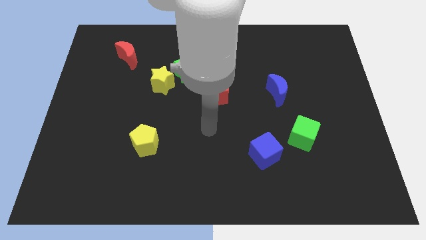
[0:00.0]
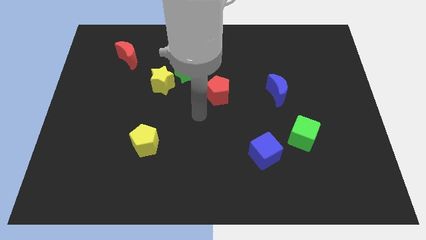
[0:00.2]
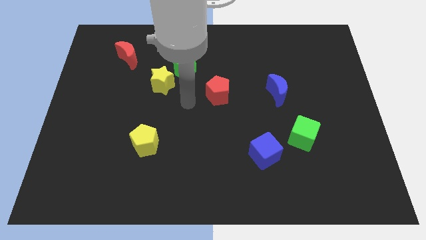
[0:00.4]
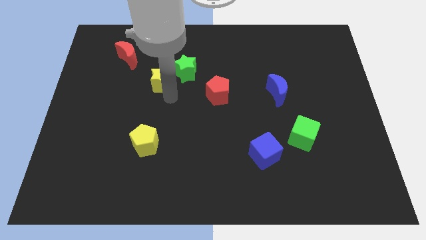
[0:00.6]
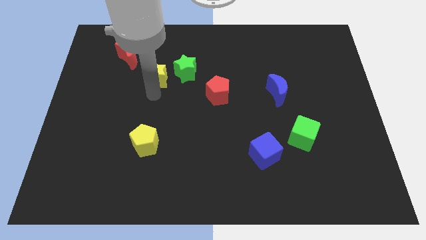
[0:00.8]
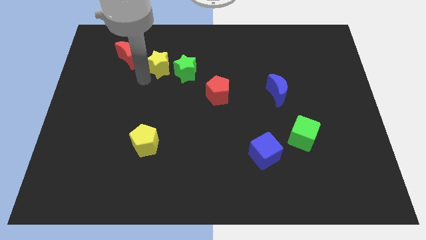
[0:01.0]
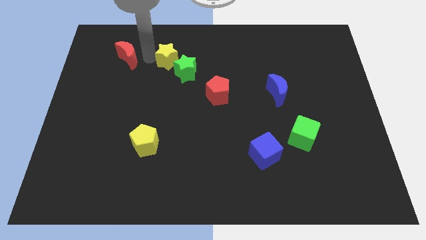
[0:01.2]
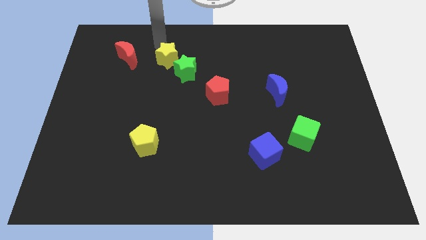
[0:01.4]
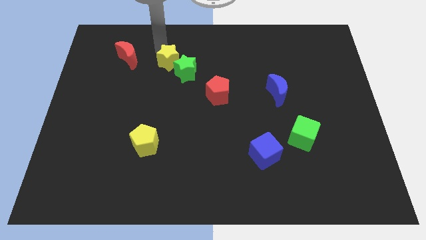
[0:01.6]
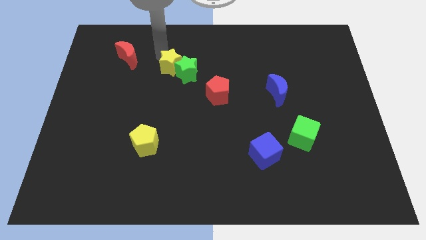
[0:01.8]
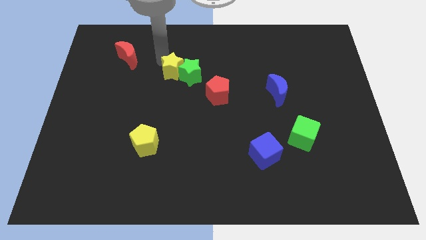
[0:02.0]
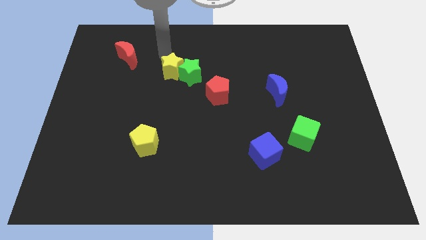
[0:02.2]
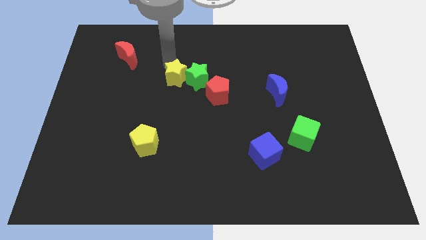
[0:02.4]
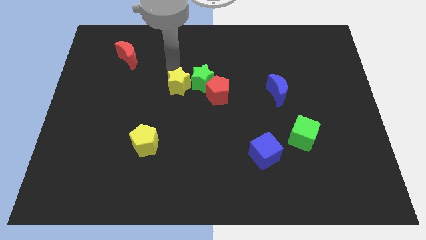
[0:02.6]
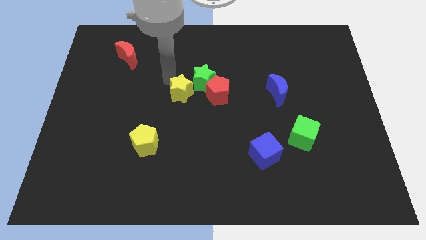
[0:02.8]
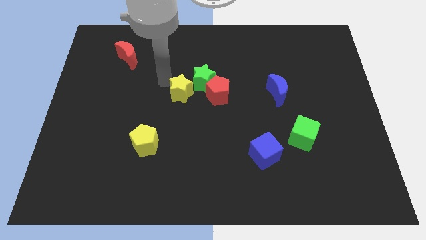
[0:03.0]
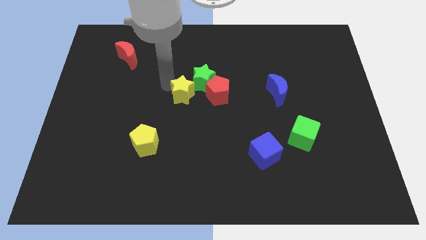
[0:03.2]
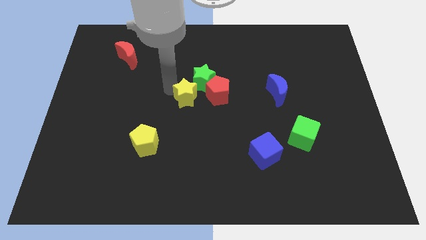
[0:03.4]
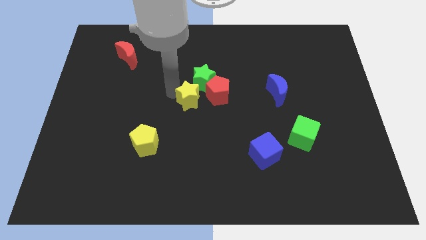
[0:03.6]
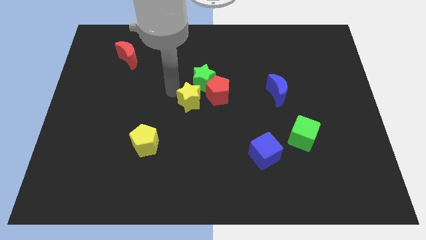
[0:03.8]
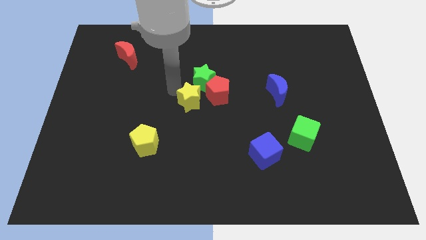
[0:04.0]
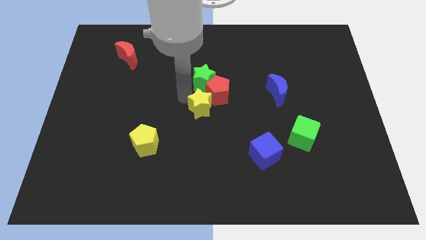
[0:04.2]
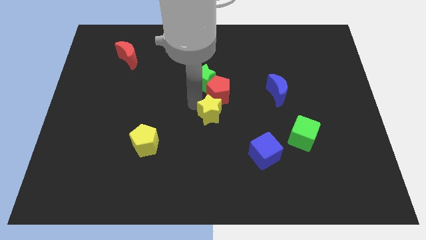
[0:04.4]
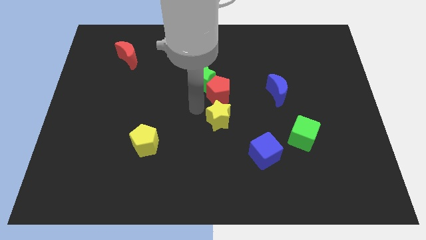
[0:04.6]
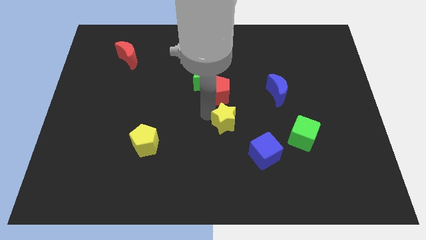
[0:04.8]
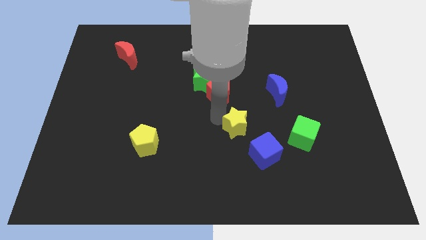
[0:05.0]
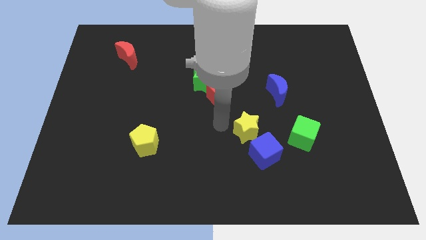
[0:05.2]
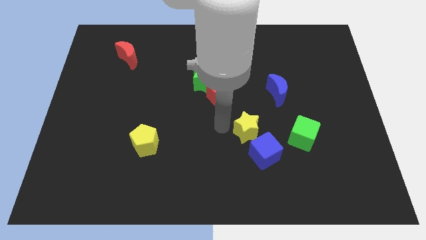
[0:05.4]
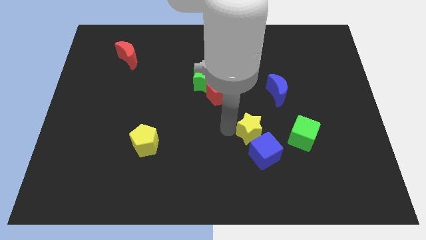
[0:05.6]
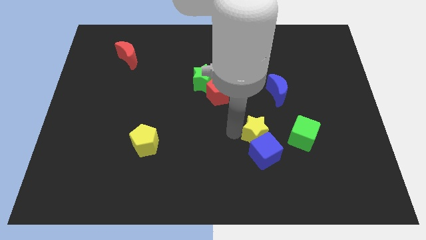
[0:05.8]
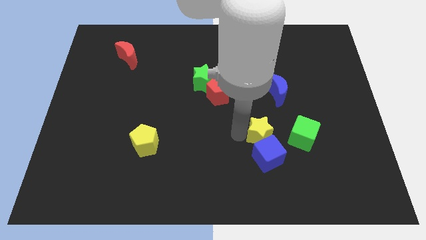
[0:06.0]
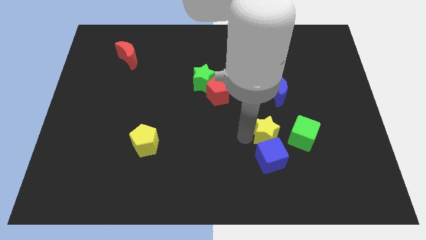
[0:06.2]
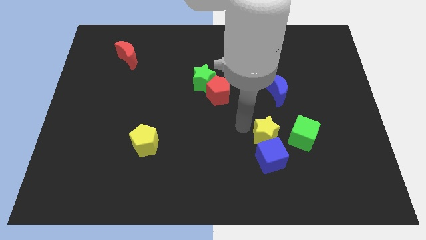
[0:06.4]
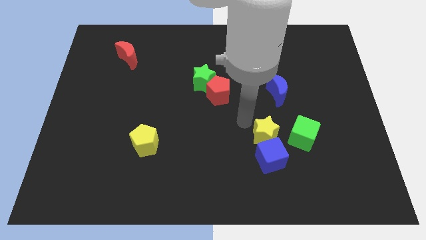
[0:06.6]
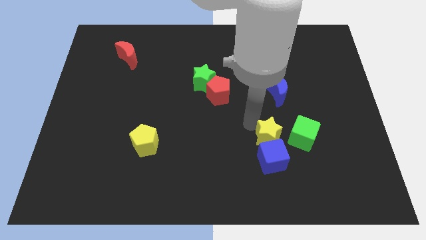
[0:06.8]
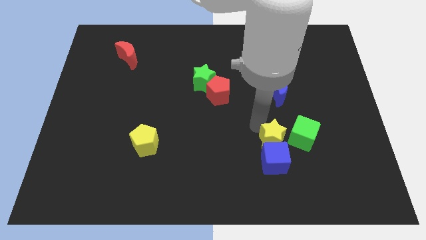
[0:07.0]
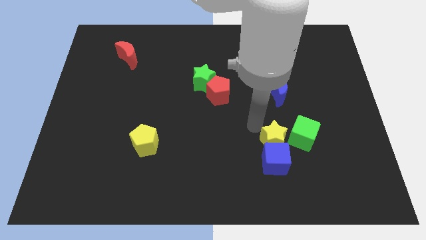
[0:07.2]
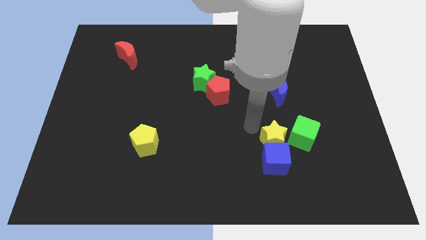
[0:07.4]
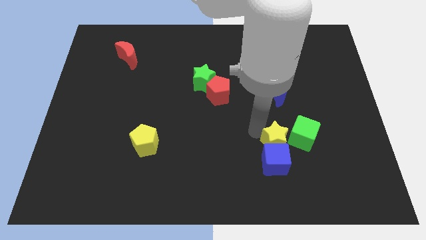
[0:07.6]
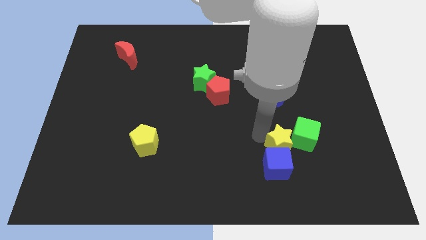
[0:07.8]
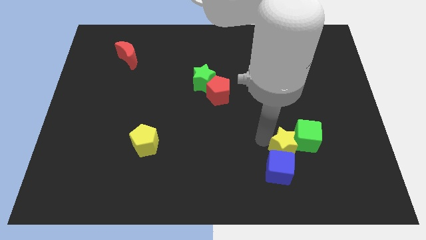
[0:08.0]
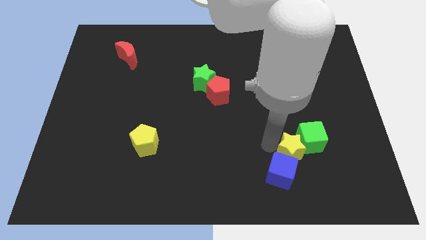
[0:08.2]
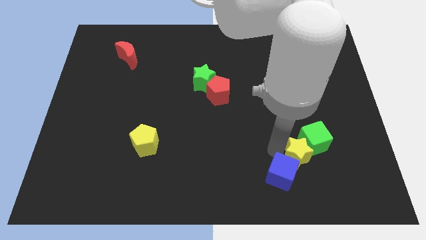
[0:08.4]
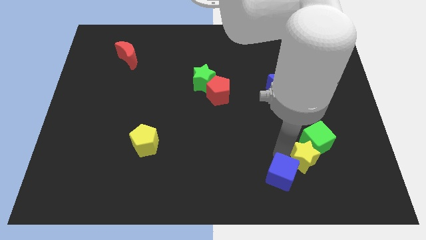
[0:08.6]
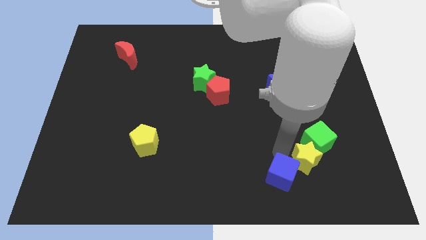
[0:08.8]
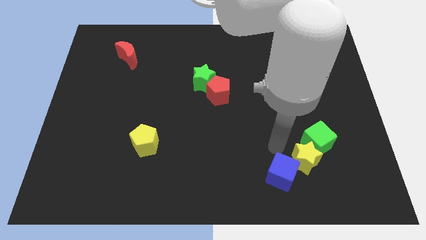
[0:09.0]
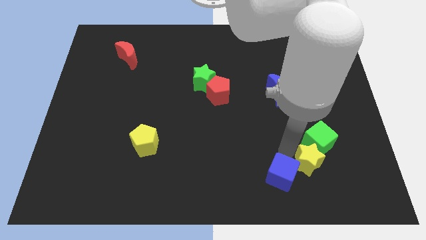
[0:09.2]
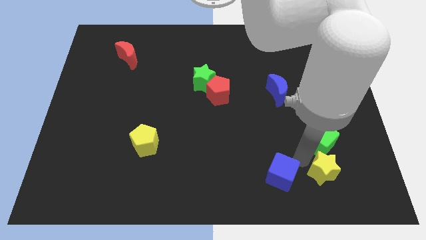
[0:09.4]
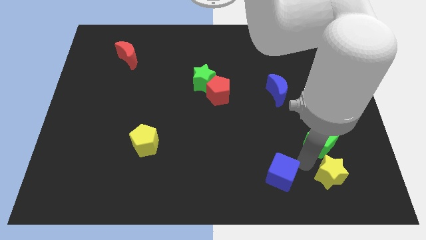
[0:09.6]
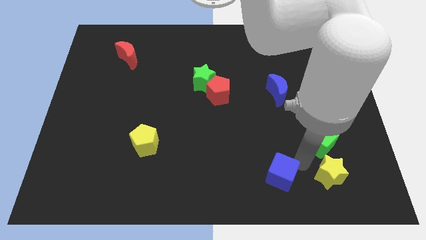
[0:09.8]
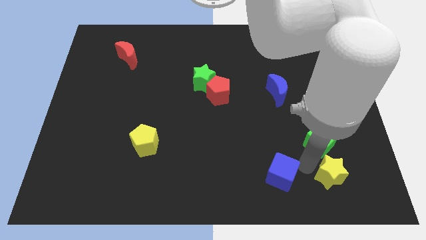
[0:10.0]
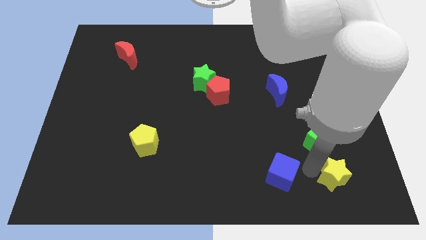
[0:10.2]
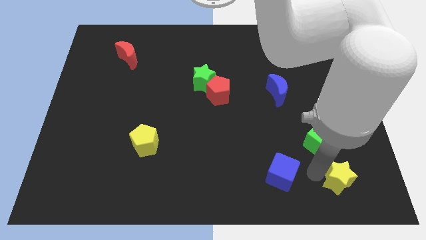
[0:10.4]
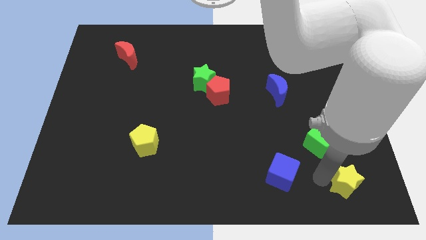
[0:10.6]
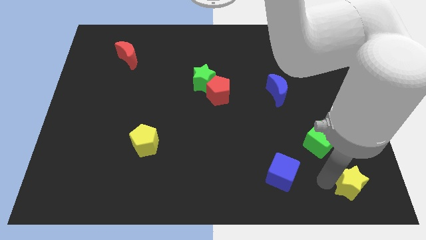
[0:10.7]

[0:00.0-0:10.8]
slide the yellow star to the bottom right of the board

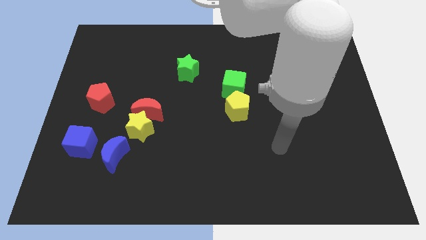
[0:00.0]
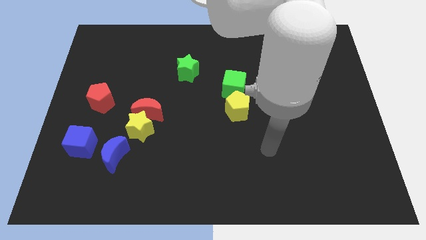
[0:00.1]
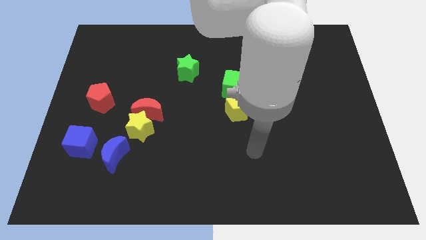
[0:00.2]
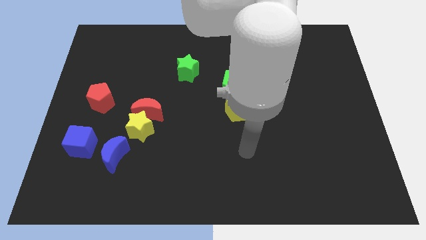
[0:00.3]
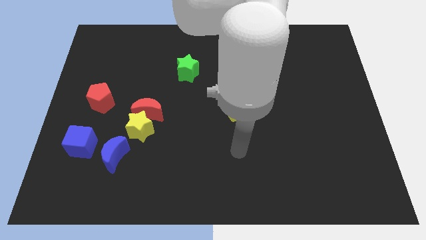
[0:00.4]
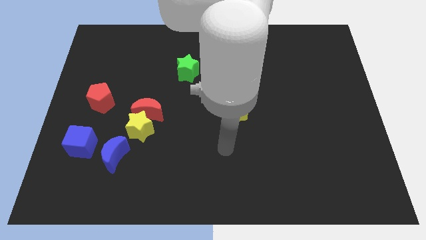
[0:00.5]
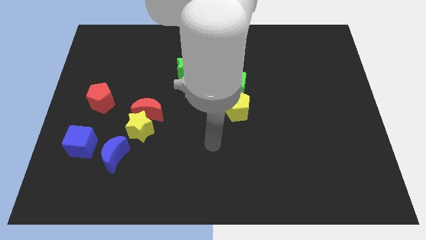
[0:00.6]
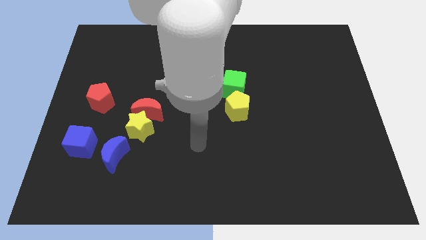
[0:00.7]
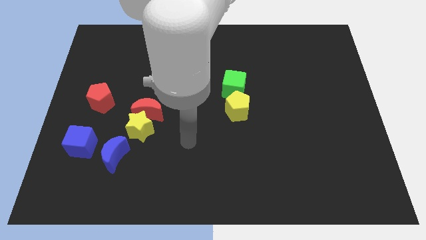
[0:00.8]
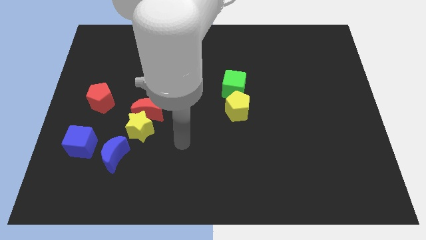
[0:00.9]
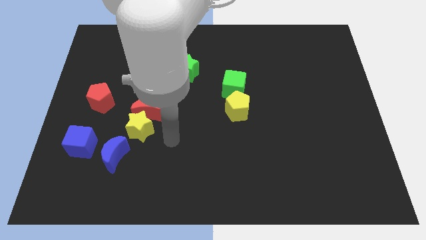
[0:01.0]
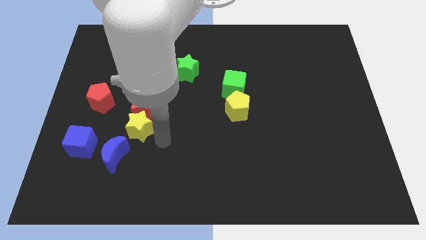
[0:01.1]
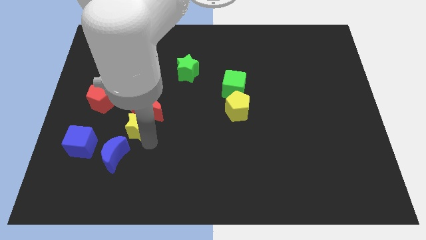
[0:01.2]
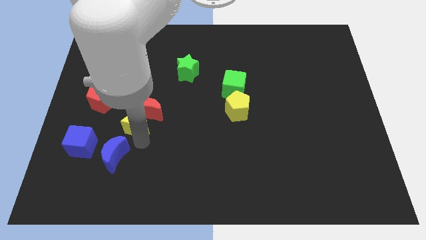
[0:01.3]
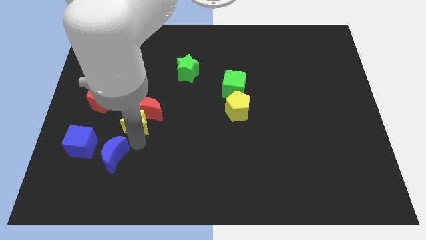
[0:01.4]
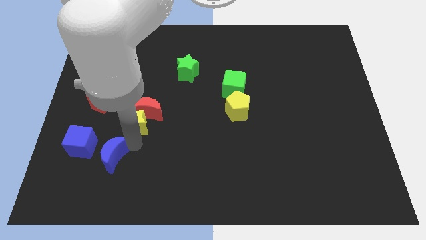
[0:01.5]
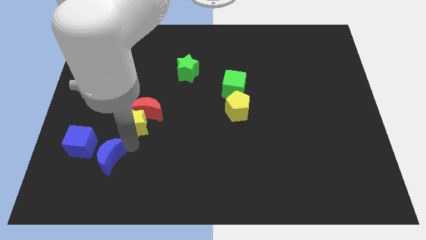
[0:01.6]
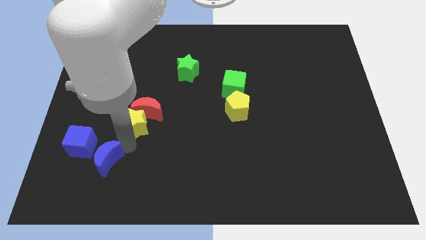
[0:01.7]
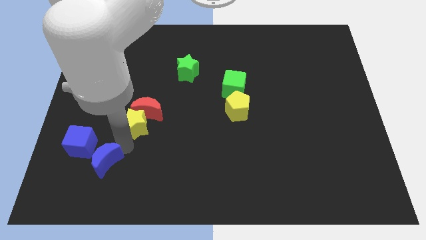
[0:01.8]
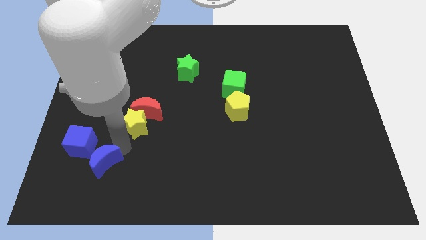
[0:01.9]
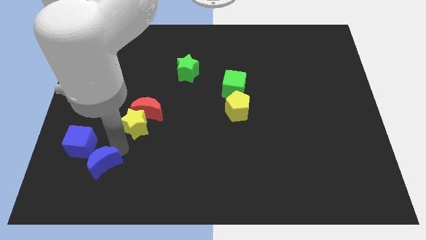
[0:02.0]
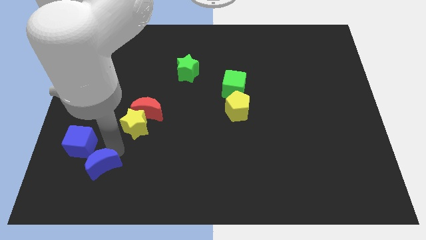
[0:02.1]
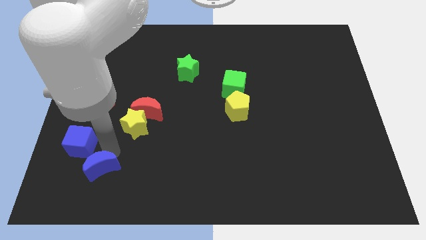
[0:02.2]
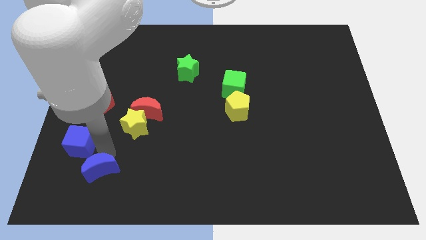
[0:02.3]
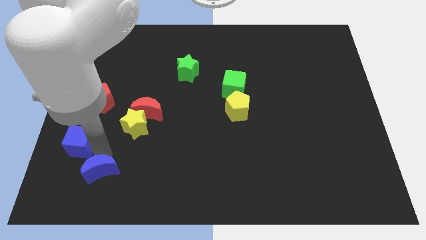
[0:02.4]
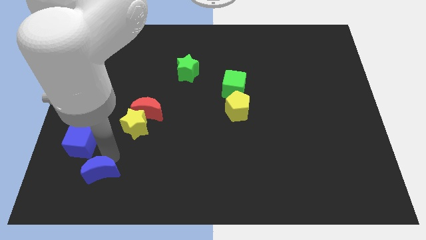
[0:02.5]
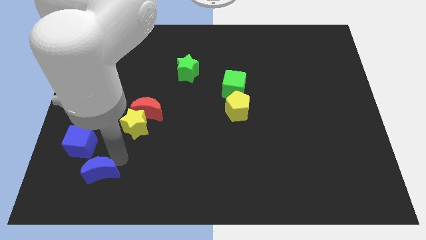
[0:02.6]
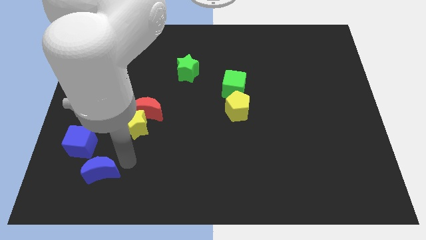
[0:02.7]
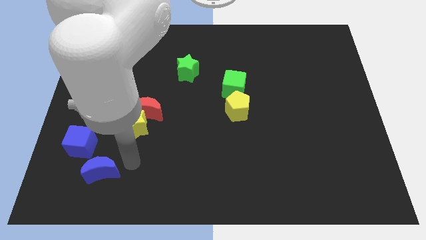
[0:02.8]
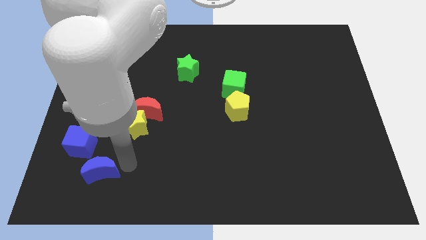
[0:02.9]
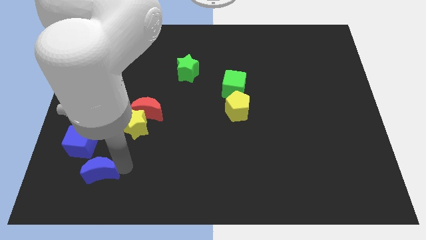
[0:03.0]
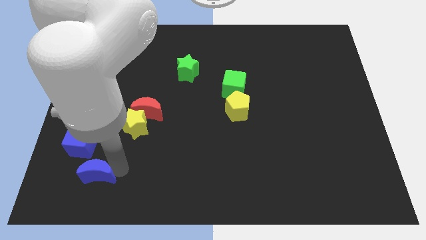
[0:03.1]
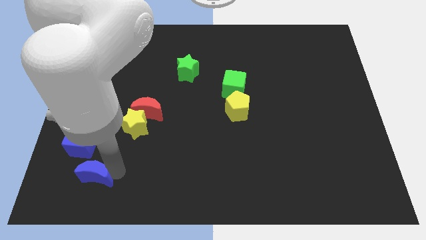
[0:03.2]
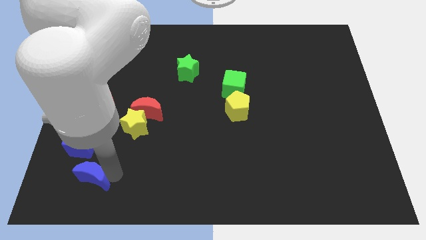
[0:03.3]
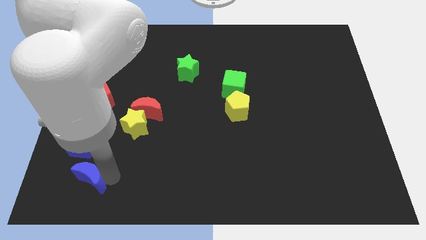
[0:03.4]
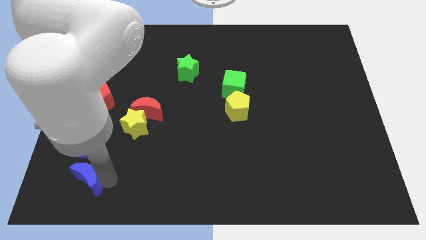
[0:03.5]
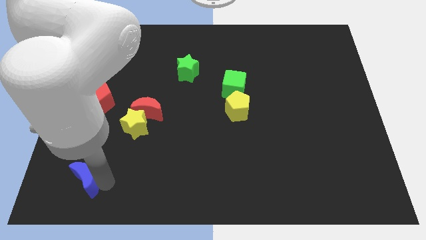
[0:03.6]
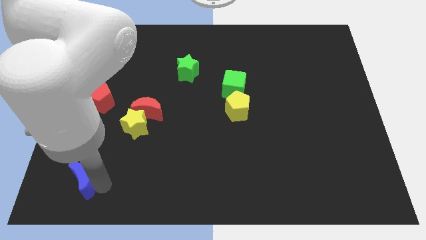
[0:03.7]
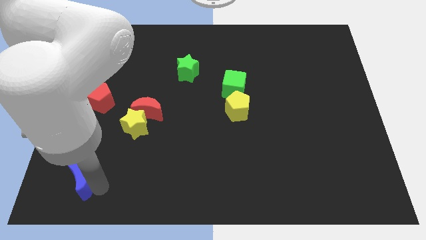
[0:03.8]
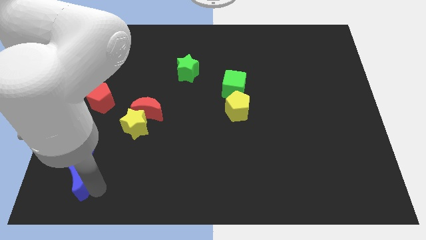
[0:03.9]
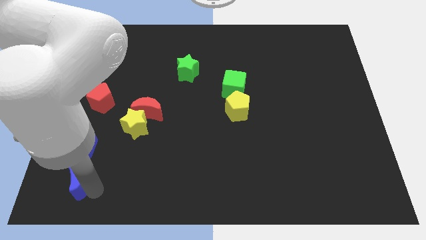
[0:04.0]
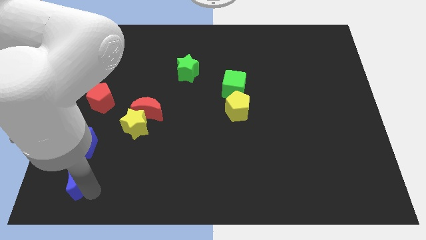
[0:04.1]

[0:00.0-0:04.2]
move the blue moon to the lower left corner
